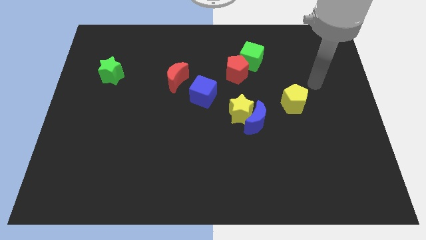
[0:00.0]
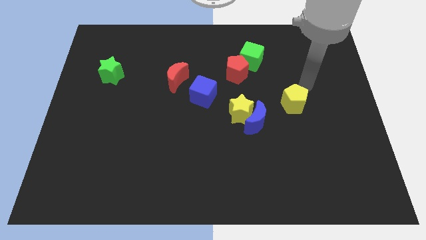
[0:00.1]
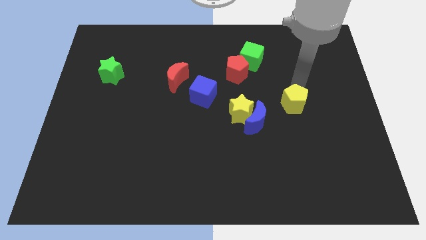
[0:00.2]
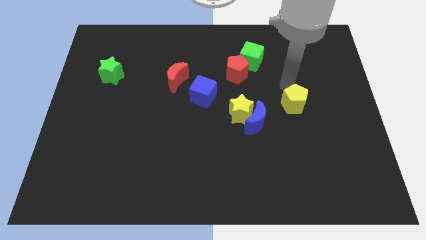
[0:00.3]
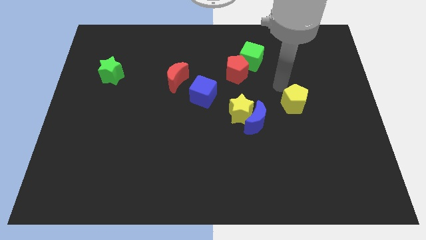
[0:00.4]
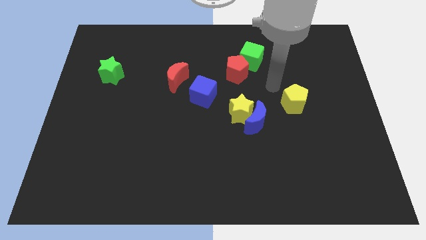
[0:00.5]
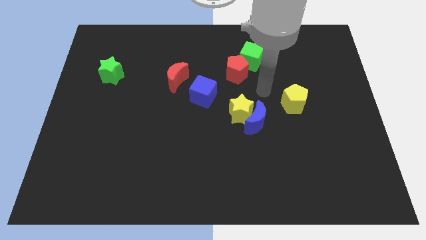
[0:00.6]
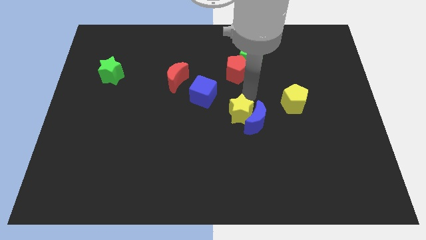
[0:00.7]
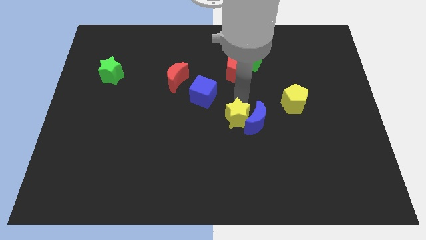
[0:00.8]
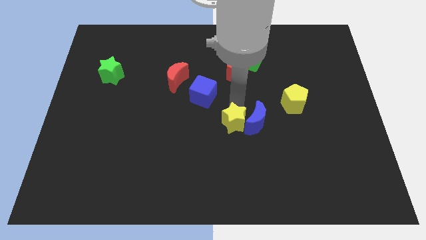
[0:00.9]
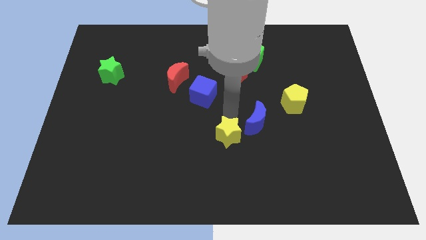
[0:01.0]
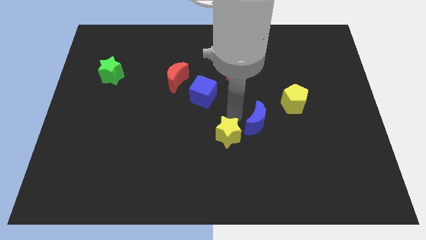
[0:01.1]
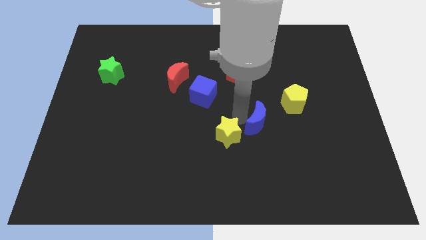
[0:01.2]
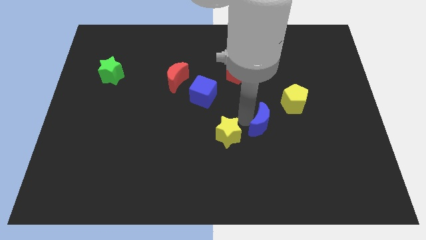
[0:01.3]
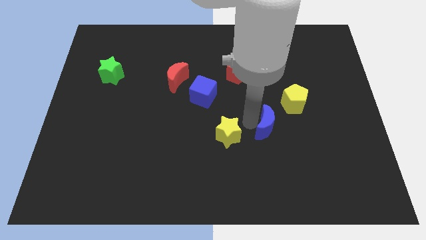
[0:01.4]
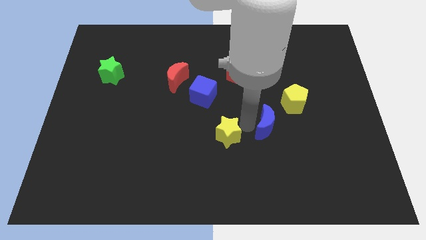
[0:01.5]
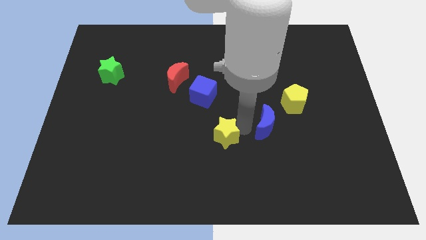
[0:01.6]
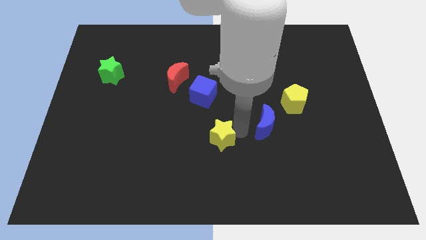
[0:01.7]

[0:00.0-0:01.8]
pull the blue moon apart from the yellow star

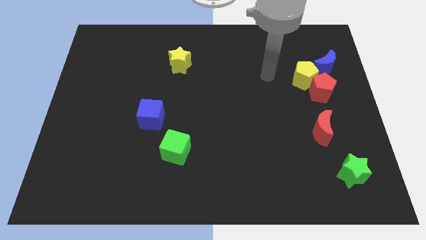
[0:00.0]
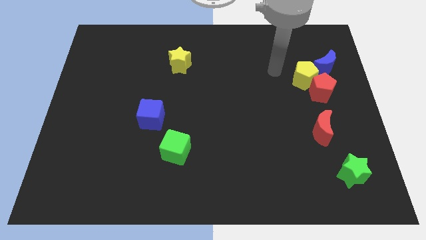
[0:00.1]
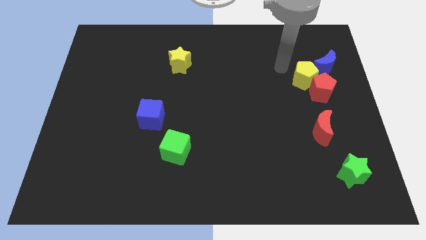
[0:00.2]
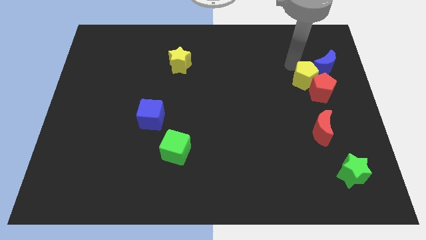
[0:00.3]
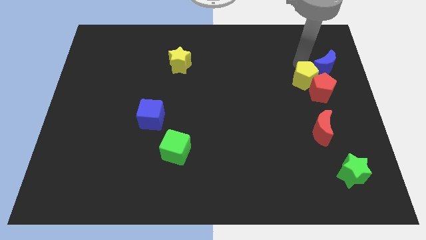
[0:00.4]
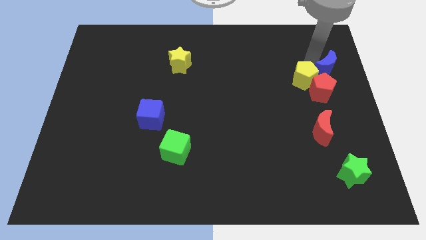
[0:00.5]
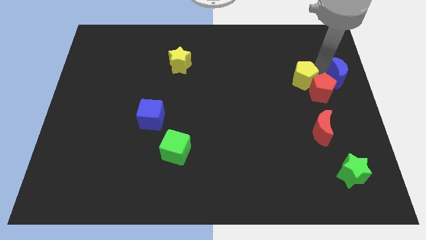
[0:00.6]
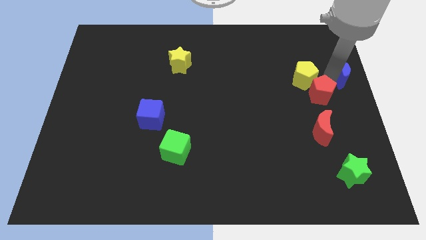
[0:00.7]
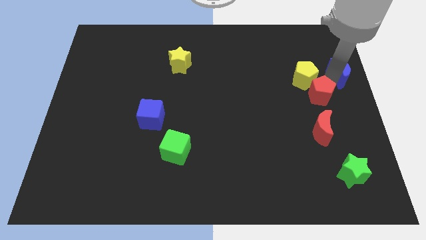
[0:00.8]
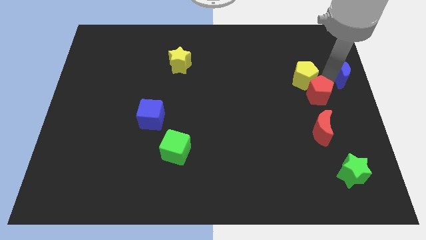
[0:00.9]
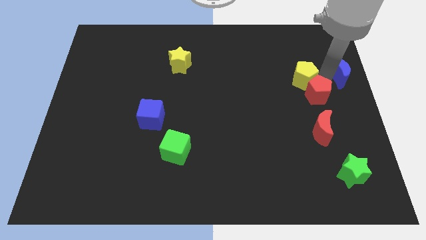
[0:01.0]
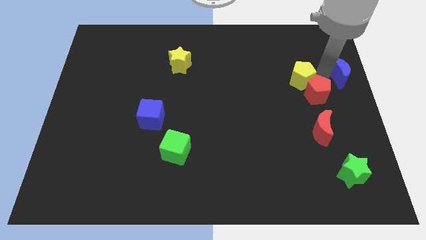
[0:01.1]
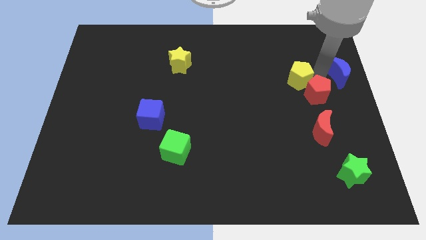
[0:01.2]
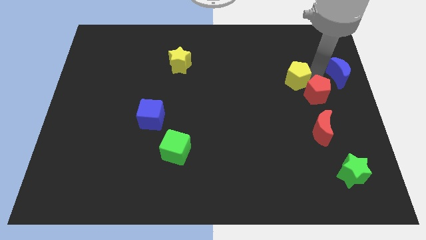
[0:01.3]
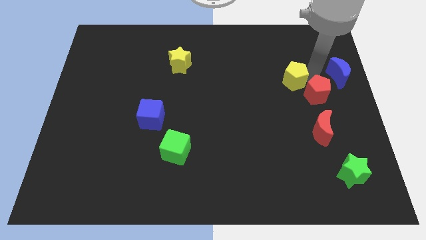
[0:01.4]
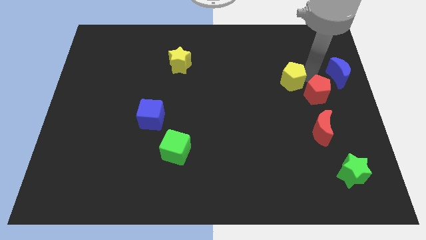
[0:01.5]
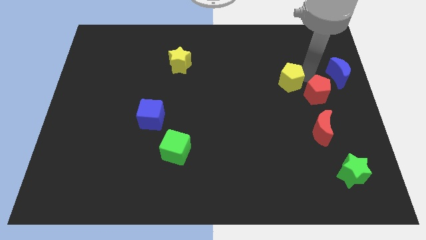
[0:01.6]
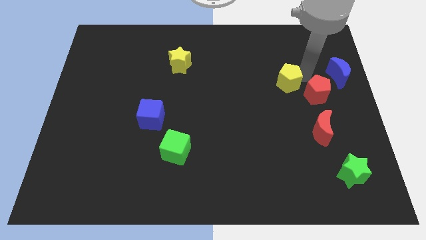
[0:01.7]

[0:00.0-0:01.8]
separate the yellow pentagon from the red pentagon and blue moon

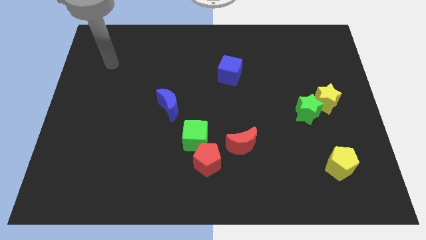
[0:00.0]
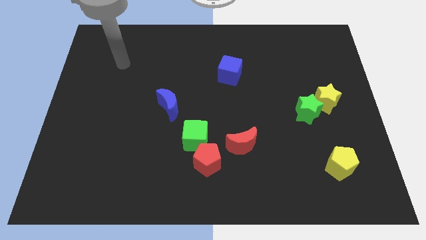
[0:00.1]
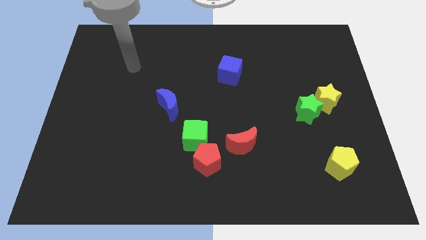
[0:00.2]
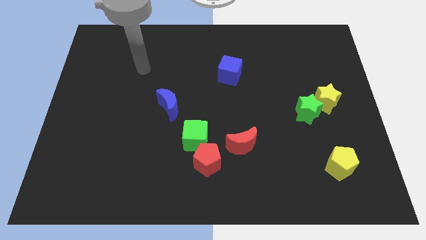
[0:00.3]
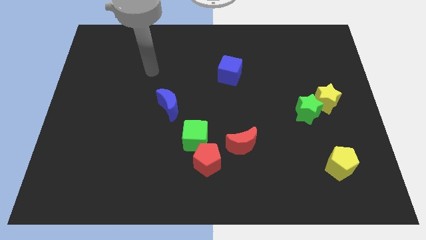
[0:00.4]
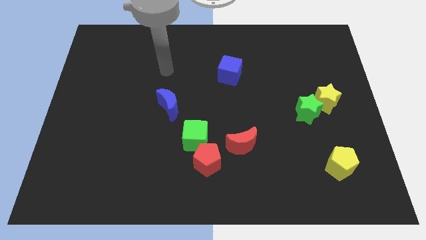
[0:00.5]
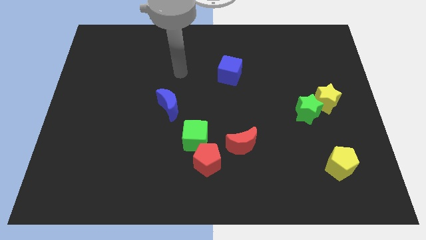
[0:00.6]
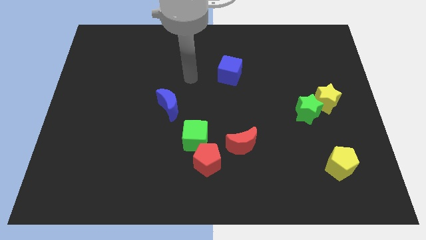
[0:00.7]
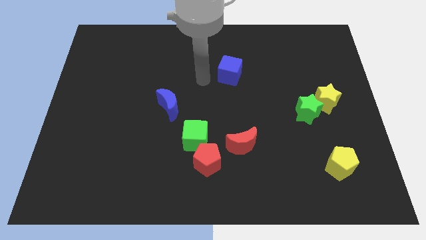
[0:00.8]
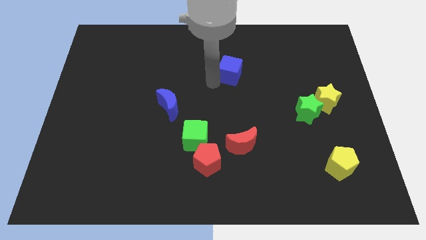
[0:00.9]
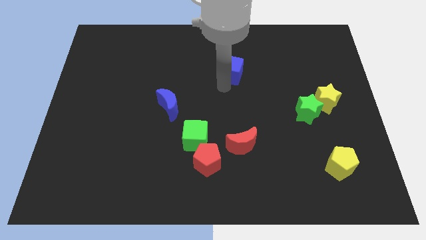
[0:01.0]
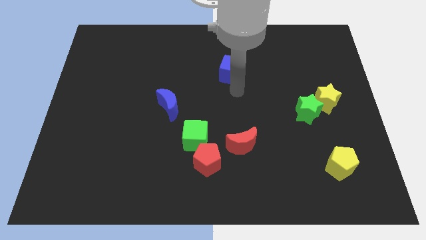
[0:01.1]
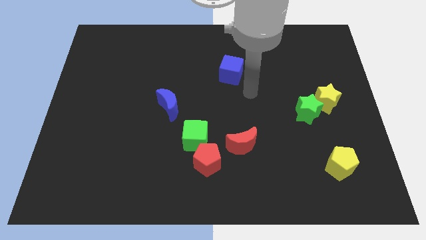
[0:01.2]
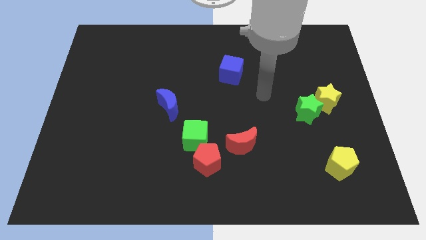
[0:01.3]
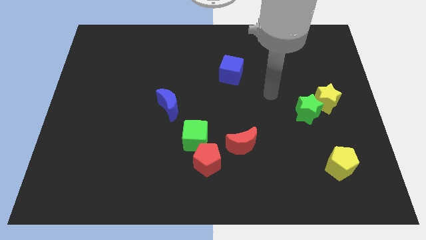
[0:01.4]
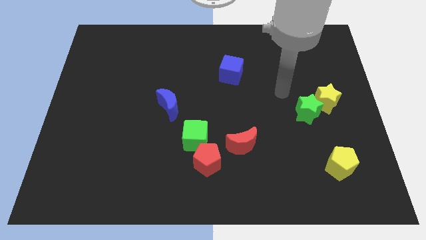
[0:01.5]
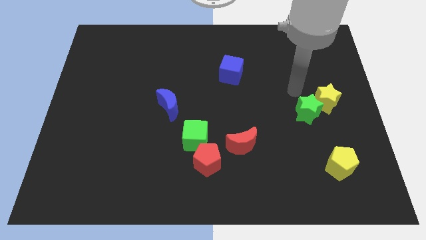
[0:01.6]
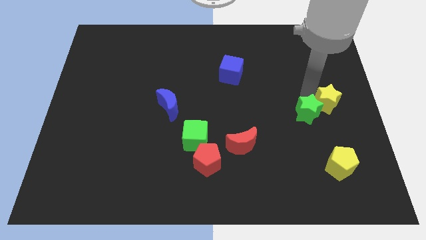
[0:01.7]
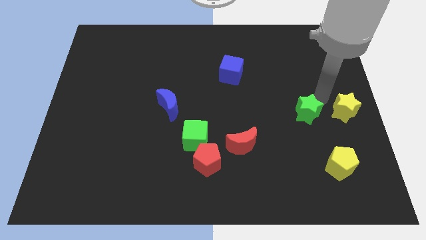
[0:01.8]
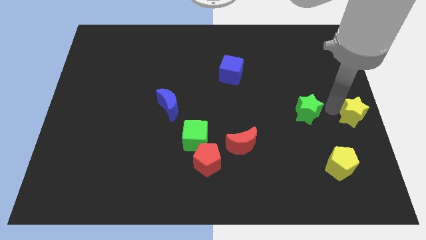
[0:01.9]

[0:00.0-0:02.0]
pull the green star apart from the yellow star

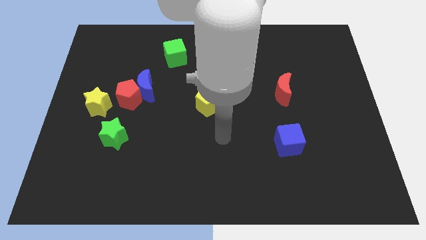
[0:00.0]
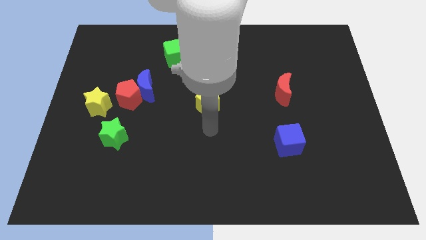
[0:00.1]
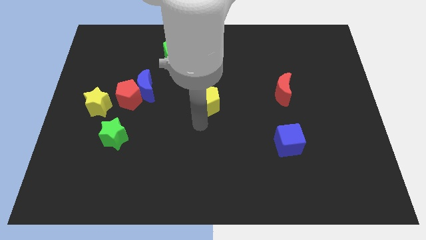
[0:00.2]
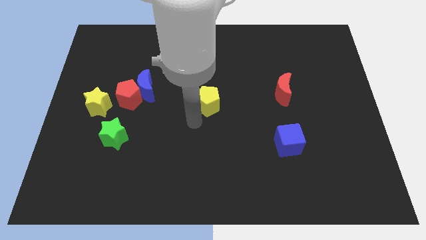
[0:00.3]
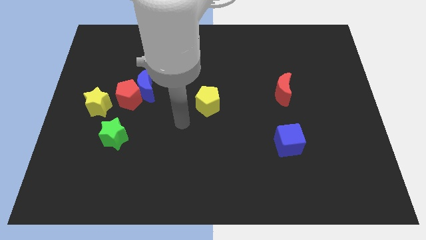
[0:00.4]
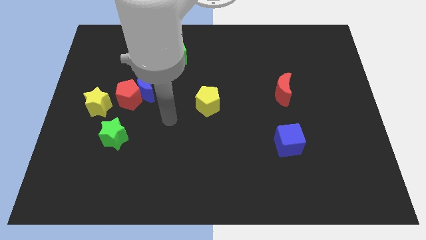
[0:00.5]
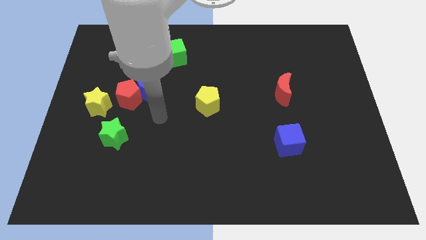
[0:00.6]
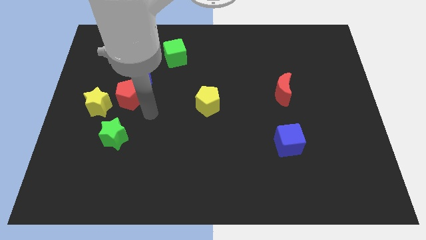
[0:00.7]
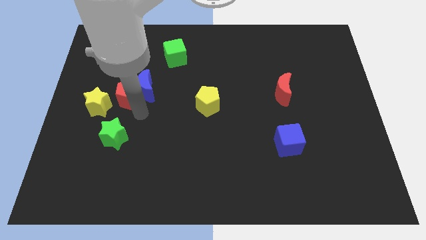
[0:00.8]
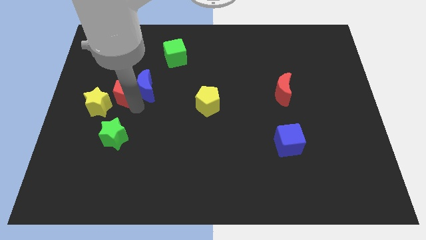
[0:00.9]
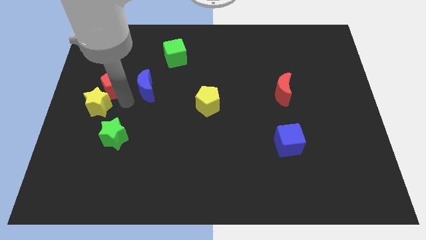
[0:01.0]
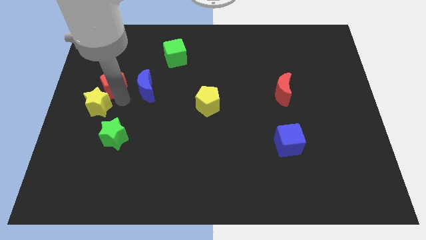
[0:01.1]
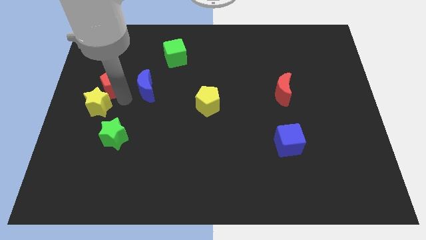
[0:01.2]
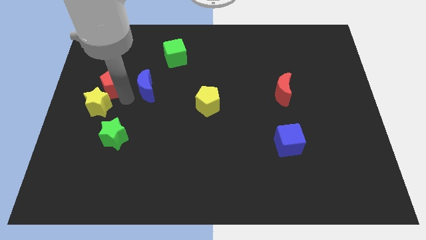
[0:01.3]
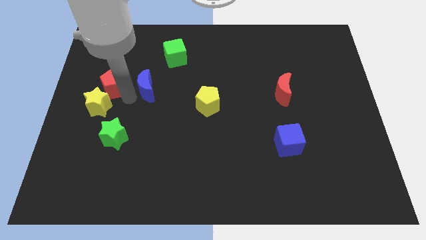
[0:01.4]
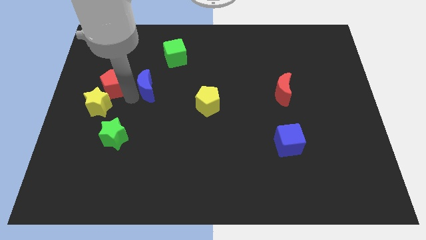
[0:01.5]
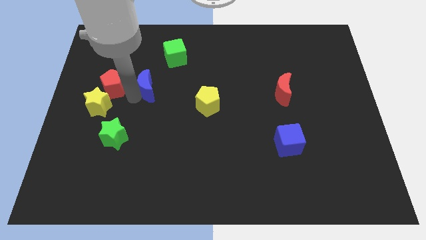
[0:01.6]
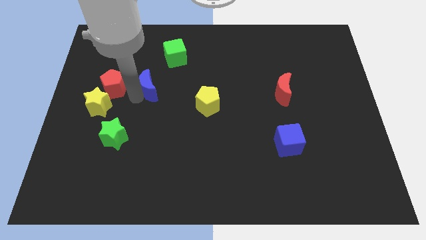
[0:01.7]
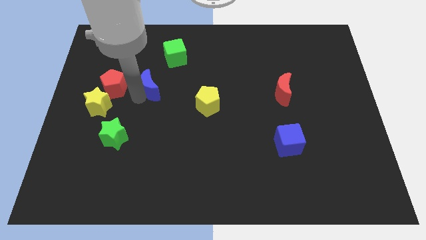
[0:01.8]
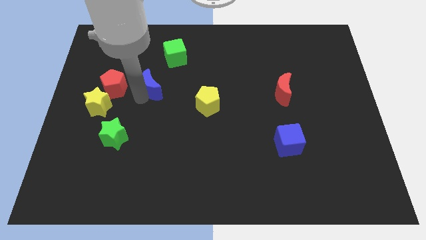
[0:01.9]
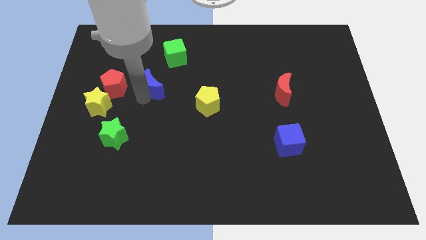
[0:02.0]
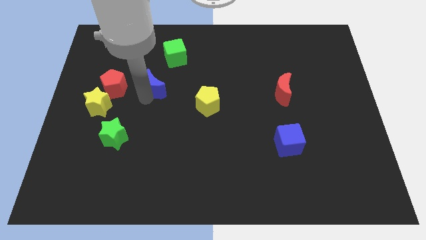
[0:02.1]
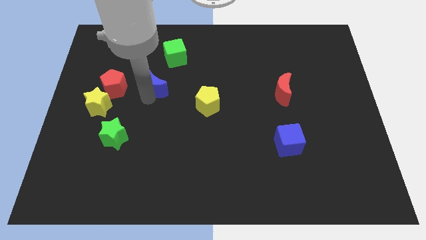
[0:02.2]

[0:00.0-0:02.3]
move the blue moon away from the red pentagon

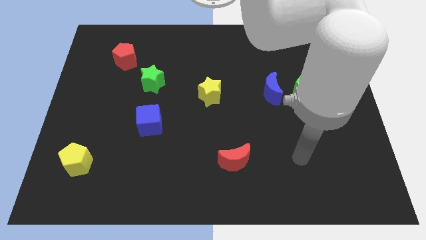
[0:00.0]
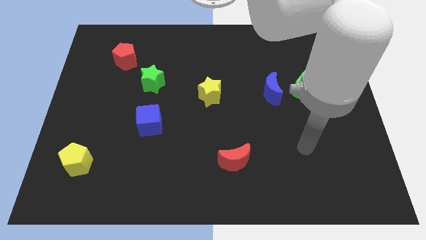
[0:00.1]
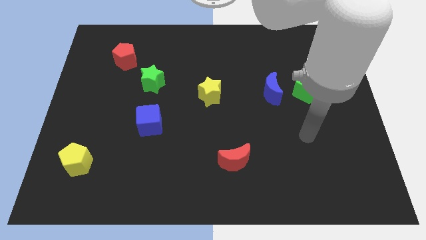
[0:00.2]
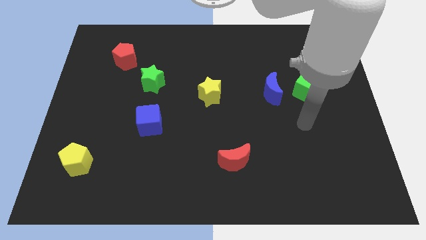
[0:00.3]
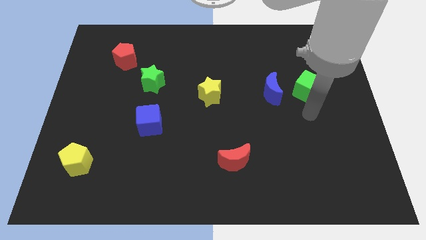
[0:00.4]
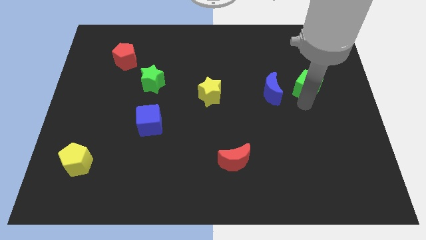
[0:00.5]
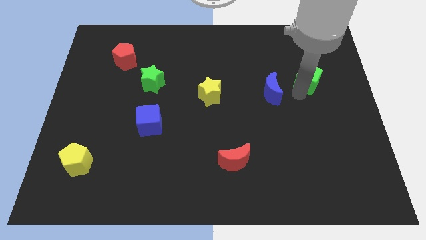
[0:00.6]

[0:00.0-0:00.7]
separate the blue moon from the green cube

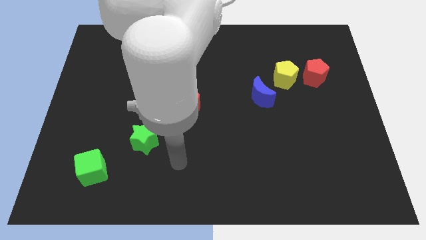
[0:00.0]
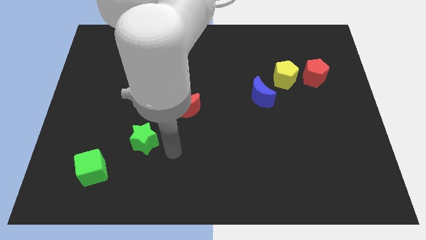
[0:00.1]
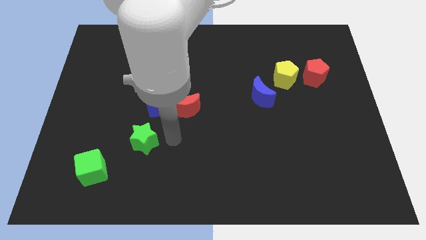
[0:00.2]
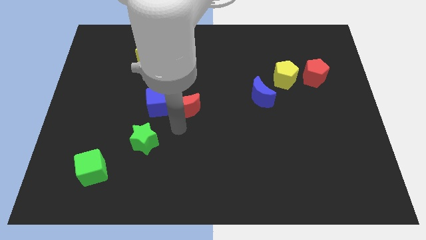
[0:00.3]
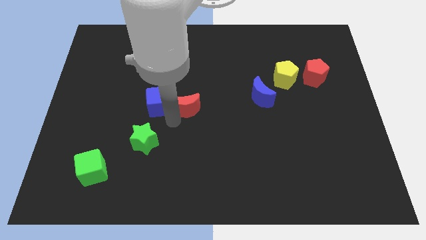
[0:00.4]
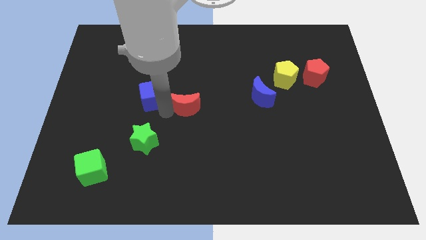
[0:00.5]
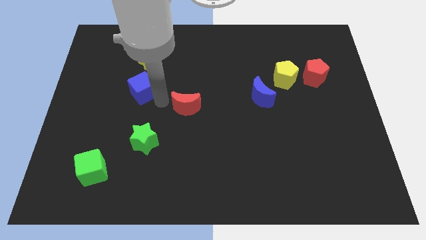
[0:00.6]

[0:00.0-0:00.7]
pull the red moon apart from the blue cube
